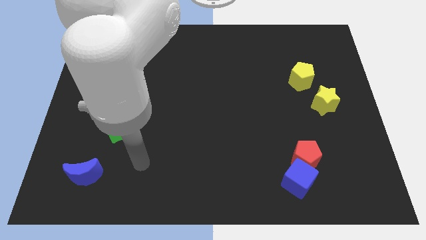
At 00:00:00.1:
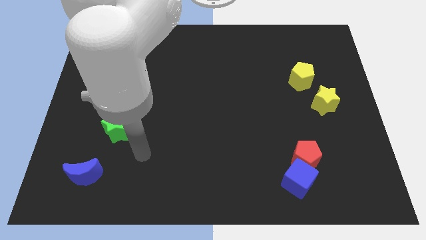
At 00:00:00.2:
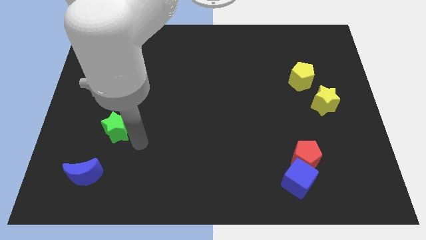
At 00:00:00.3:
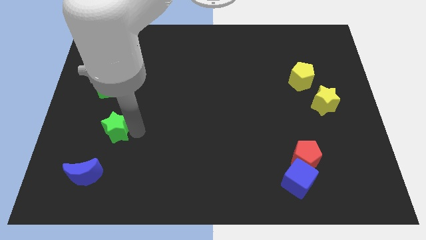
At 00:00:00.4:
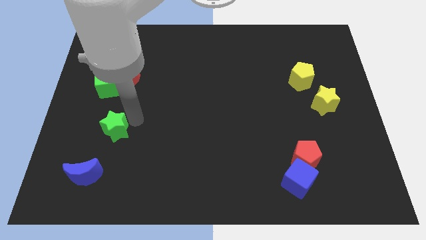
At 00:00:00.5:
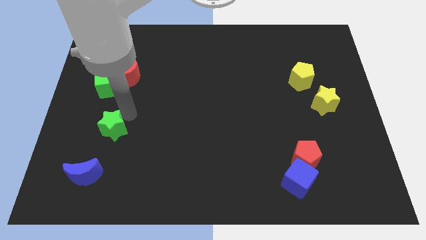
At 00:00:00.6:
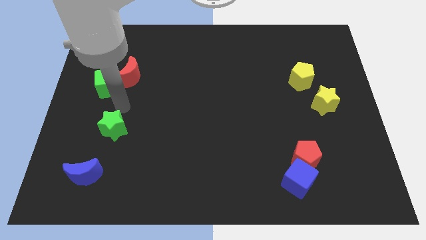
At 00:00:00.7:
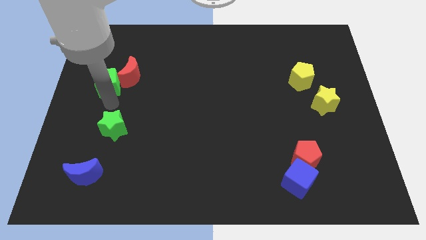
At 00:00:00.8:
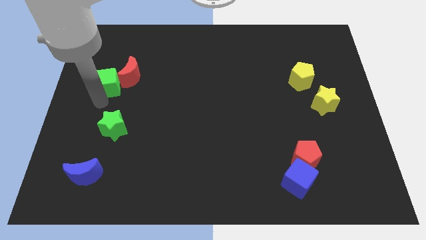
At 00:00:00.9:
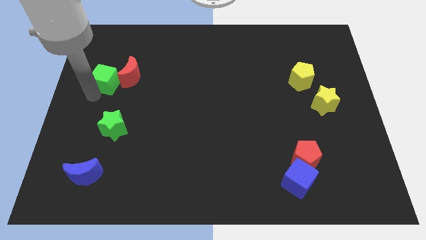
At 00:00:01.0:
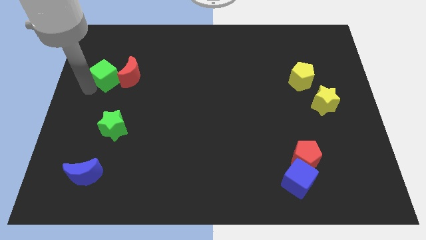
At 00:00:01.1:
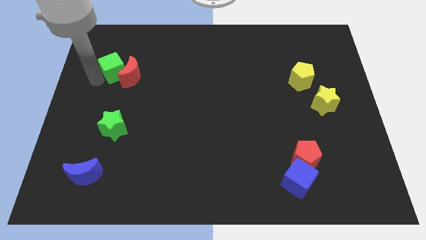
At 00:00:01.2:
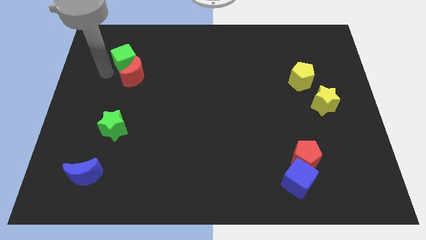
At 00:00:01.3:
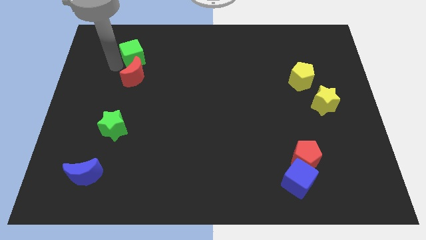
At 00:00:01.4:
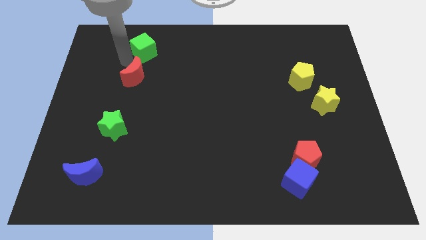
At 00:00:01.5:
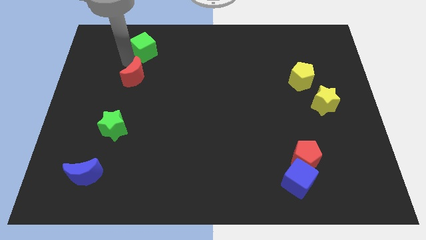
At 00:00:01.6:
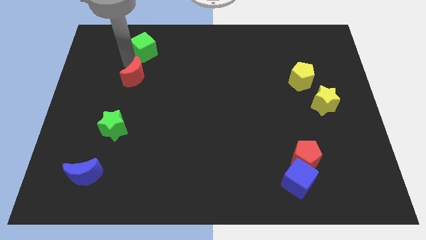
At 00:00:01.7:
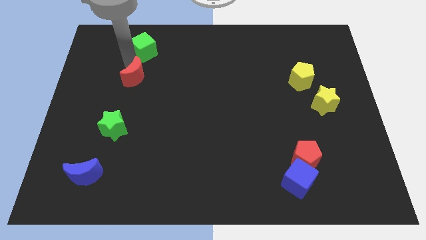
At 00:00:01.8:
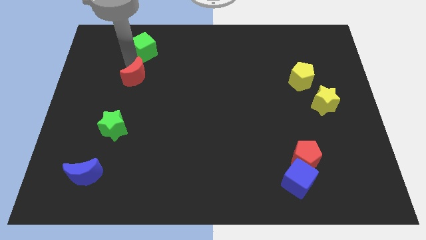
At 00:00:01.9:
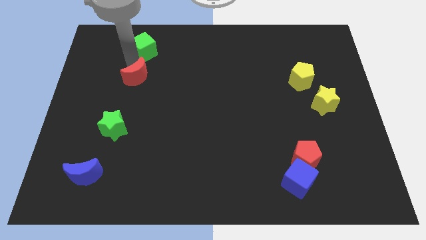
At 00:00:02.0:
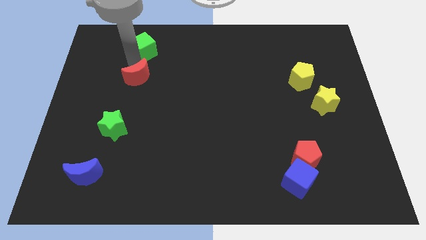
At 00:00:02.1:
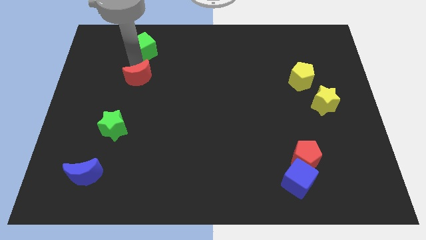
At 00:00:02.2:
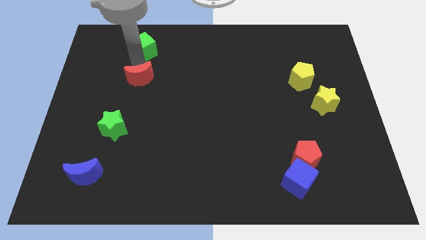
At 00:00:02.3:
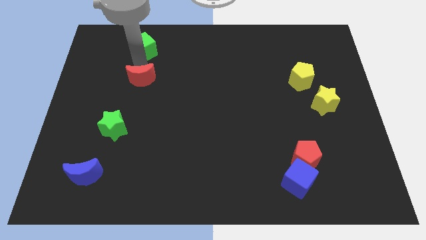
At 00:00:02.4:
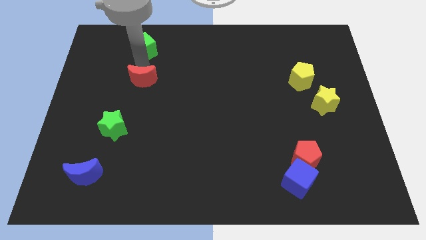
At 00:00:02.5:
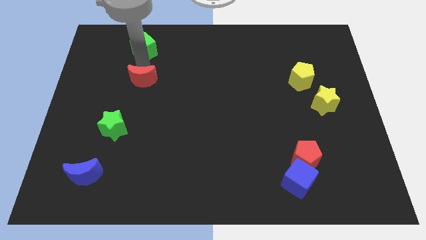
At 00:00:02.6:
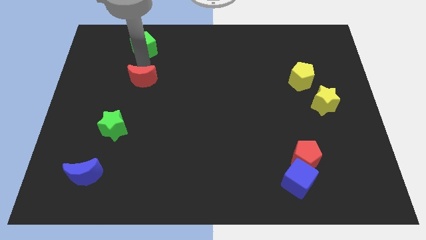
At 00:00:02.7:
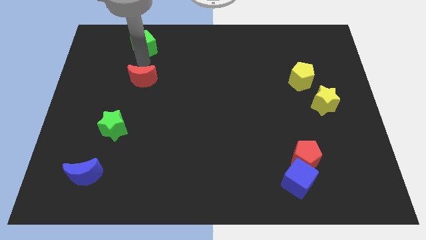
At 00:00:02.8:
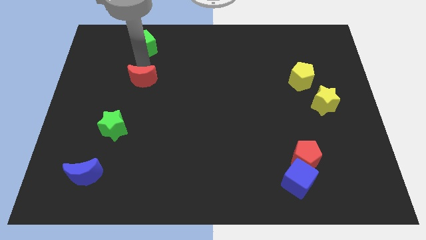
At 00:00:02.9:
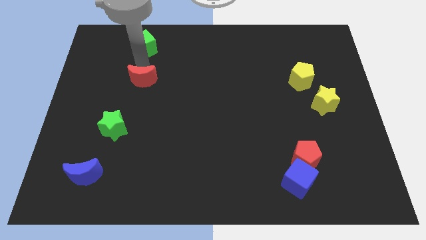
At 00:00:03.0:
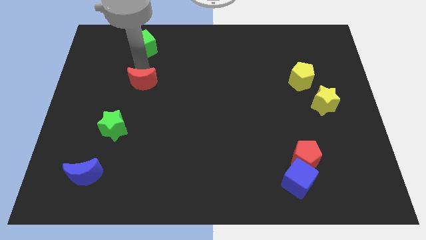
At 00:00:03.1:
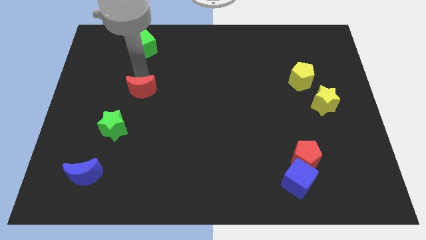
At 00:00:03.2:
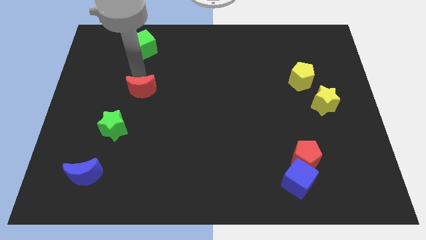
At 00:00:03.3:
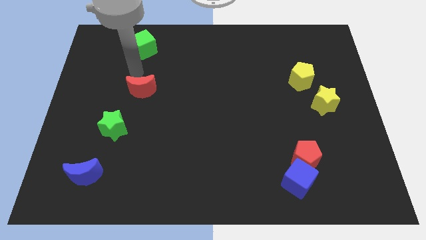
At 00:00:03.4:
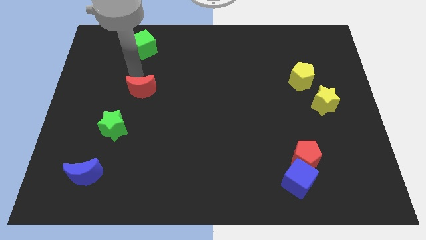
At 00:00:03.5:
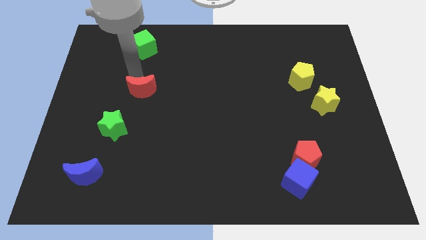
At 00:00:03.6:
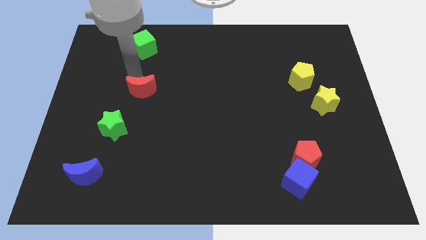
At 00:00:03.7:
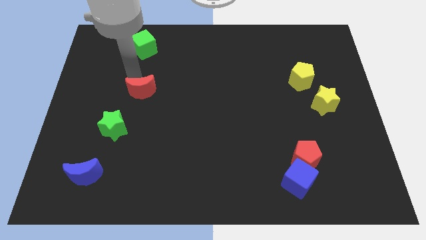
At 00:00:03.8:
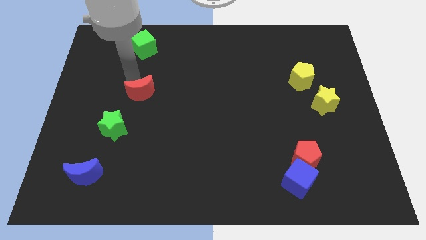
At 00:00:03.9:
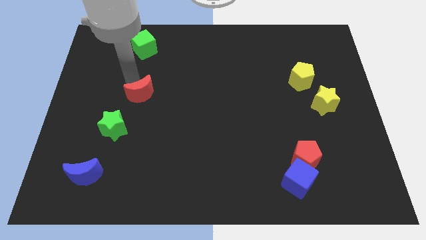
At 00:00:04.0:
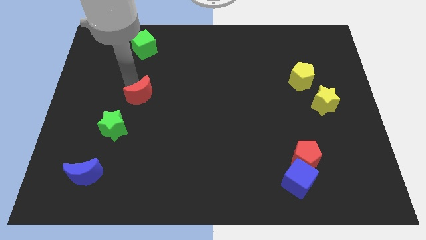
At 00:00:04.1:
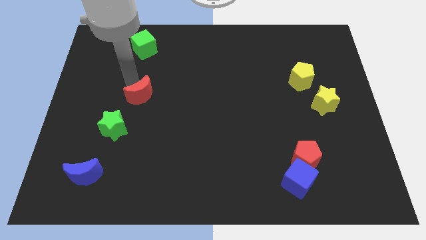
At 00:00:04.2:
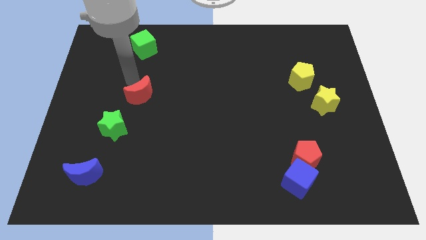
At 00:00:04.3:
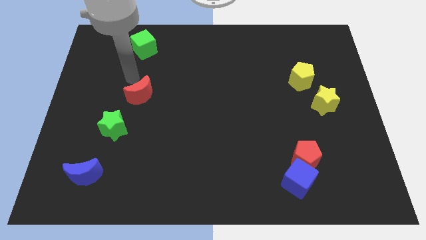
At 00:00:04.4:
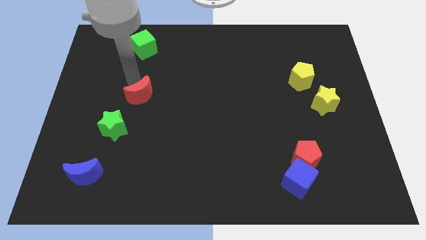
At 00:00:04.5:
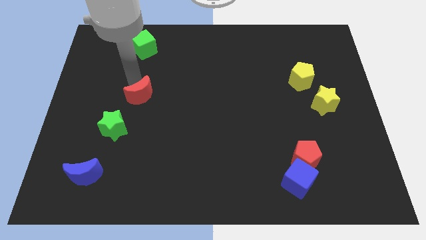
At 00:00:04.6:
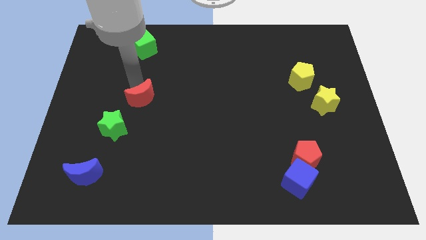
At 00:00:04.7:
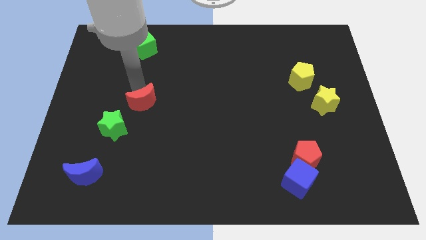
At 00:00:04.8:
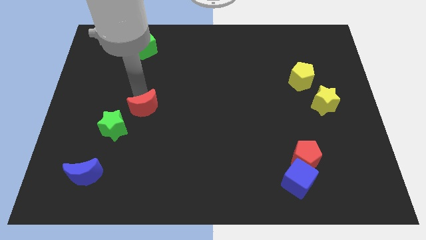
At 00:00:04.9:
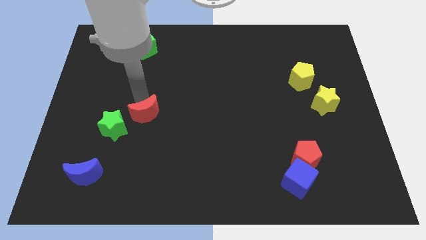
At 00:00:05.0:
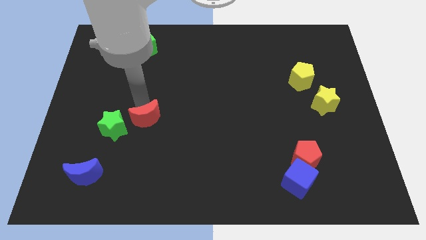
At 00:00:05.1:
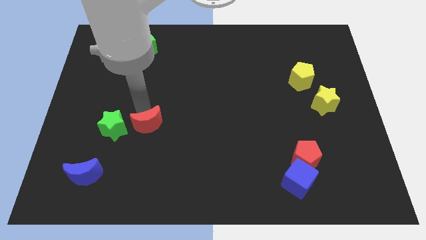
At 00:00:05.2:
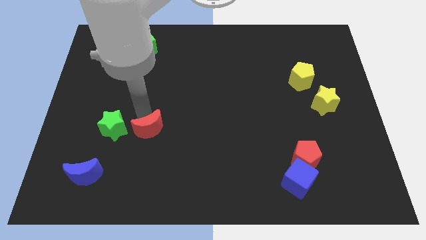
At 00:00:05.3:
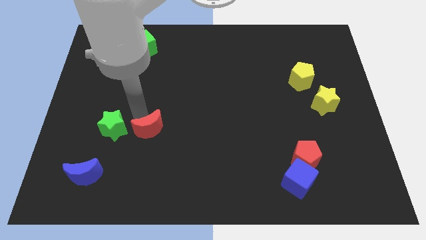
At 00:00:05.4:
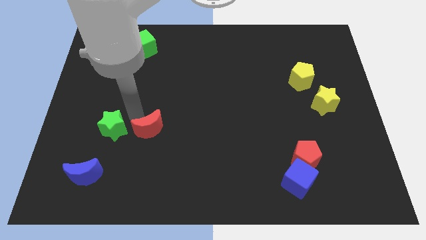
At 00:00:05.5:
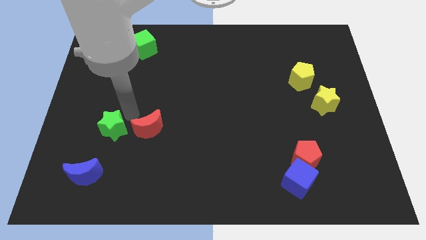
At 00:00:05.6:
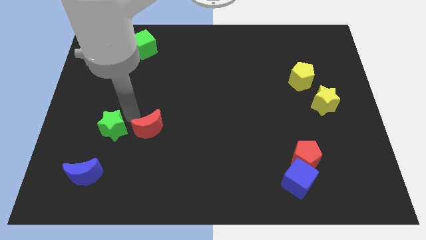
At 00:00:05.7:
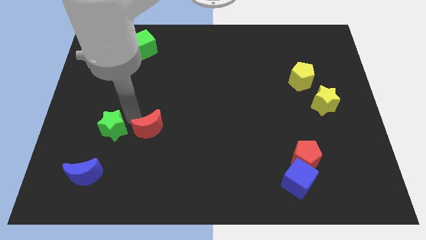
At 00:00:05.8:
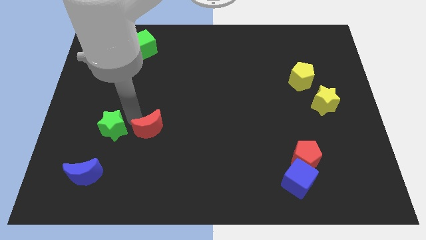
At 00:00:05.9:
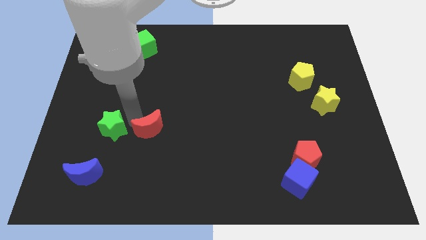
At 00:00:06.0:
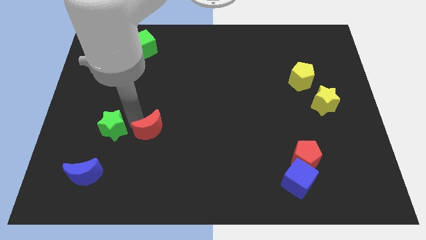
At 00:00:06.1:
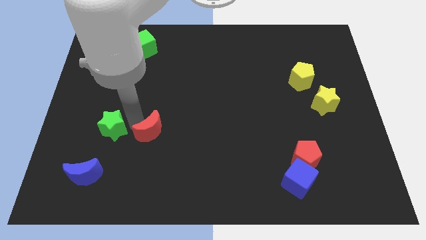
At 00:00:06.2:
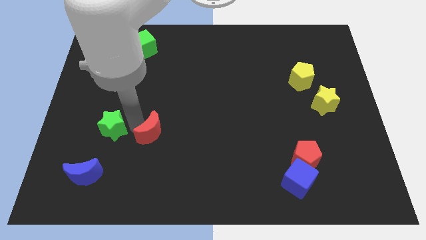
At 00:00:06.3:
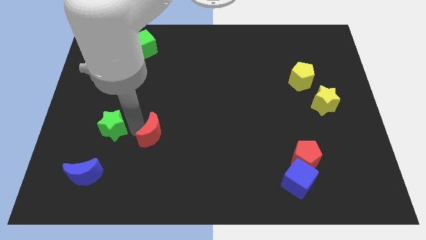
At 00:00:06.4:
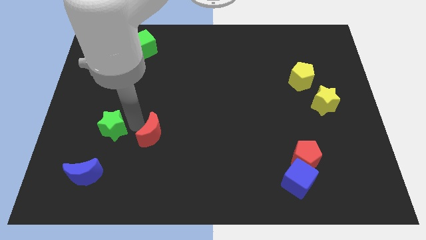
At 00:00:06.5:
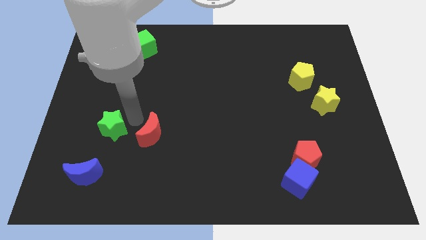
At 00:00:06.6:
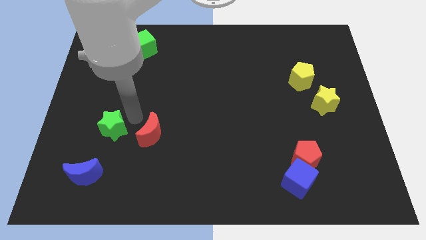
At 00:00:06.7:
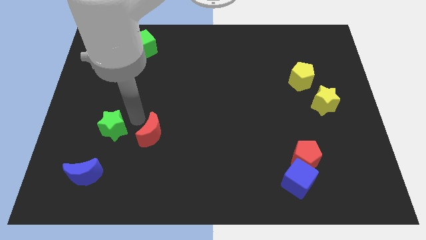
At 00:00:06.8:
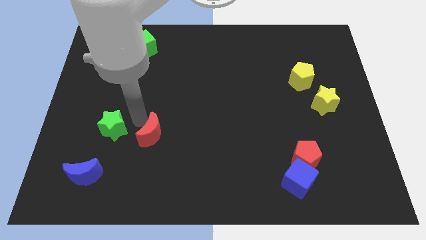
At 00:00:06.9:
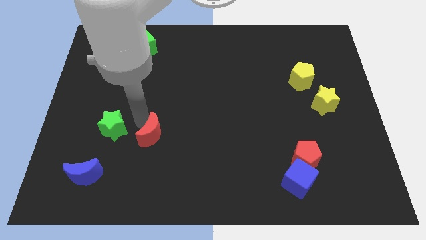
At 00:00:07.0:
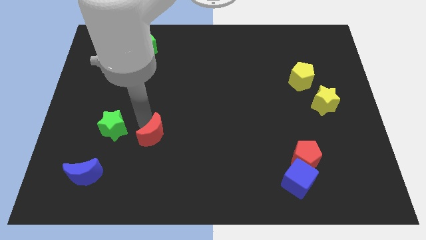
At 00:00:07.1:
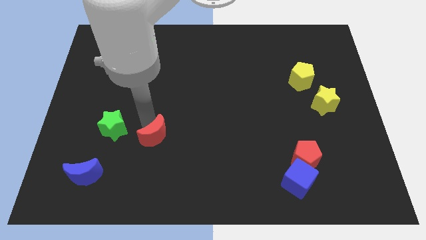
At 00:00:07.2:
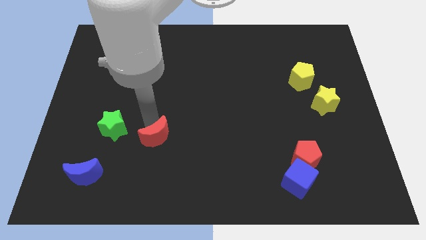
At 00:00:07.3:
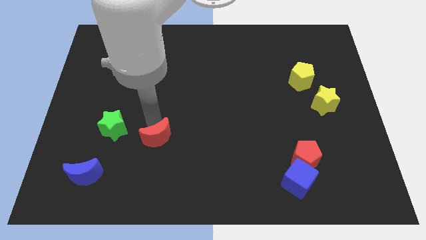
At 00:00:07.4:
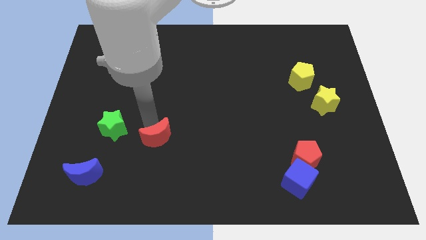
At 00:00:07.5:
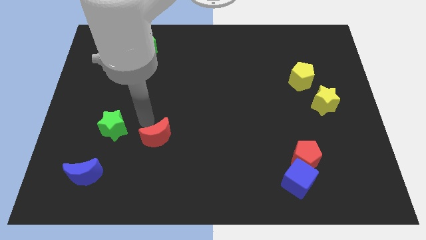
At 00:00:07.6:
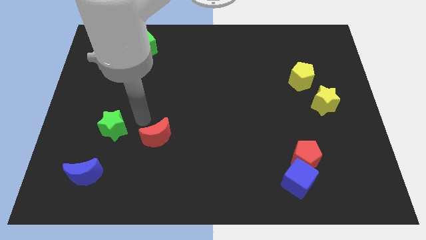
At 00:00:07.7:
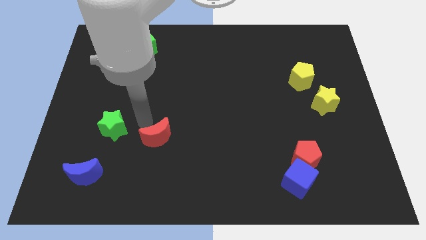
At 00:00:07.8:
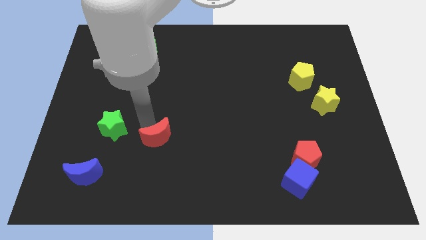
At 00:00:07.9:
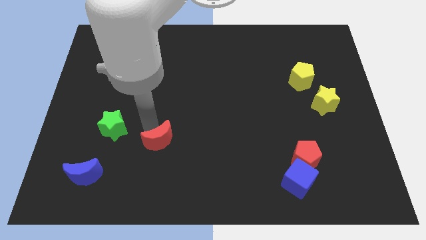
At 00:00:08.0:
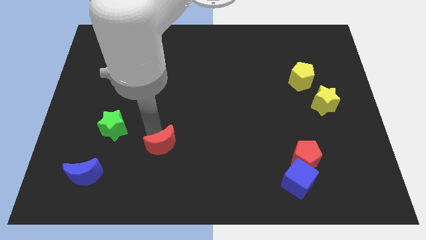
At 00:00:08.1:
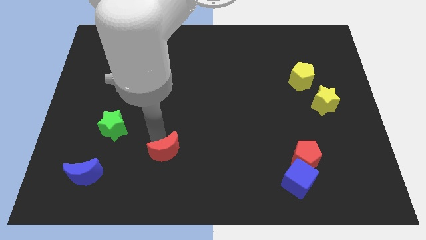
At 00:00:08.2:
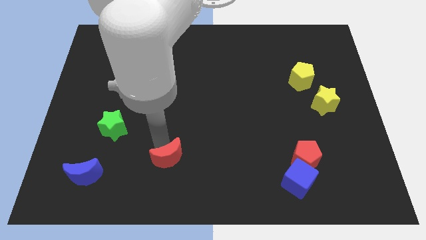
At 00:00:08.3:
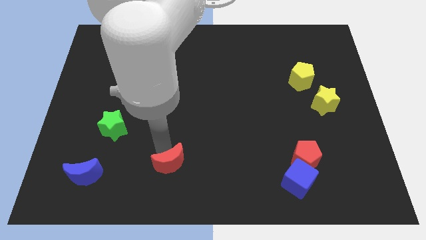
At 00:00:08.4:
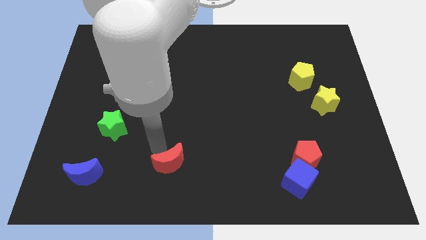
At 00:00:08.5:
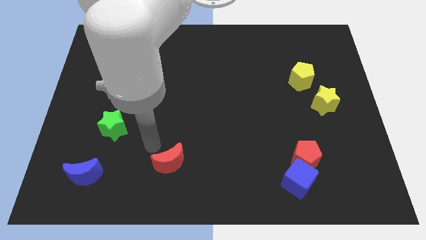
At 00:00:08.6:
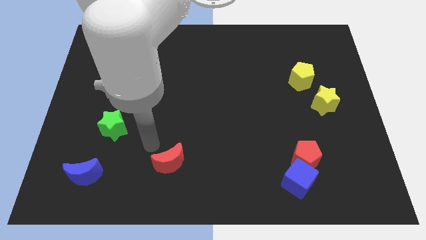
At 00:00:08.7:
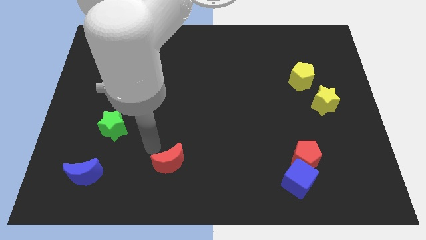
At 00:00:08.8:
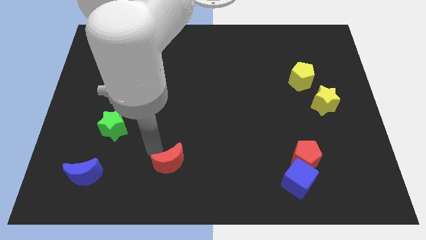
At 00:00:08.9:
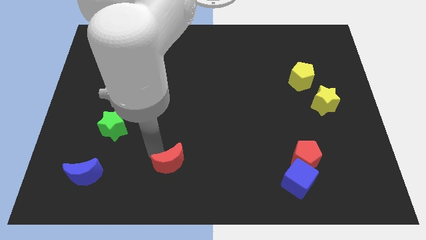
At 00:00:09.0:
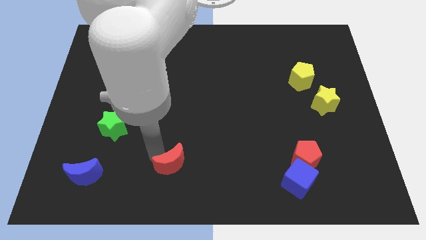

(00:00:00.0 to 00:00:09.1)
slide the red moon to the bottom
